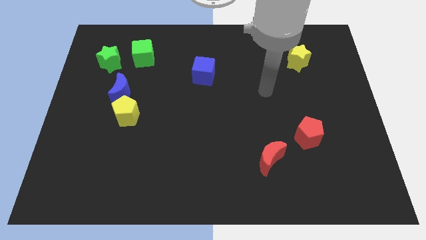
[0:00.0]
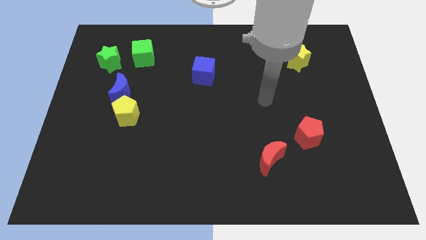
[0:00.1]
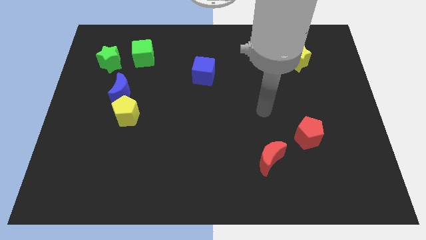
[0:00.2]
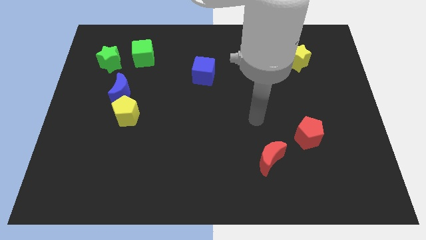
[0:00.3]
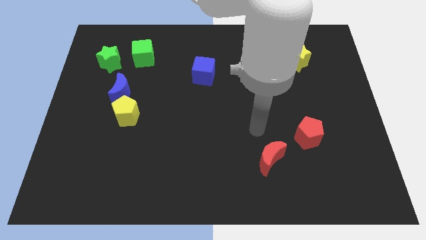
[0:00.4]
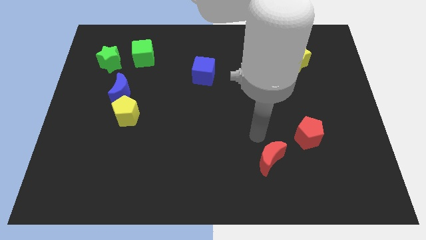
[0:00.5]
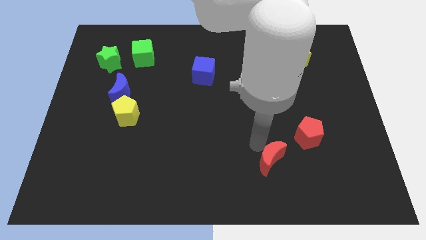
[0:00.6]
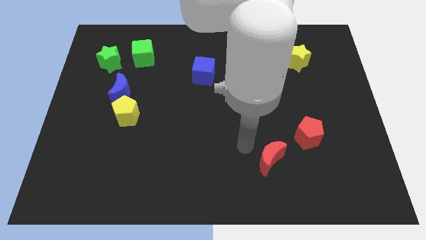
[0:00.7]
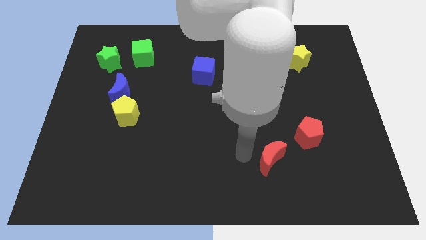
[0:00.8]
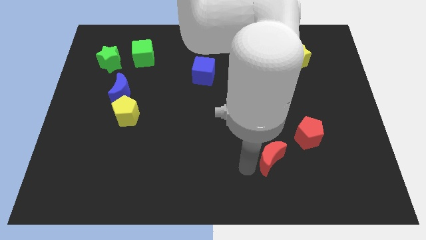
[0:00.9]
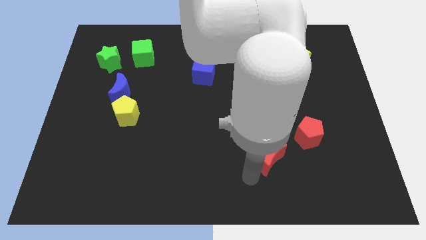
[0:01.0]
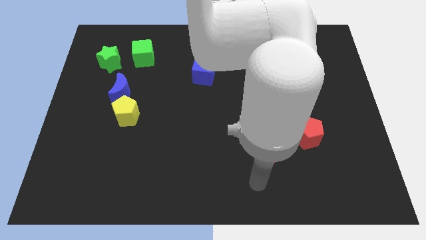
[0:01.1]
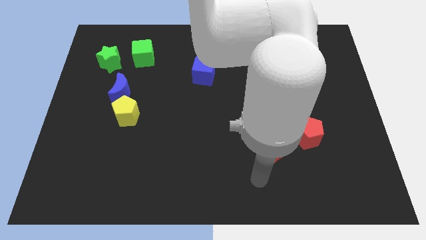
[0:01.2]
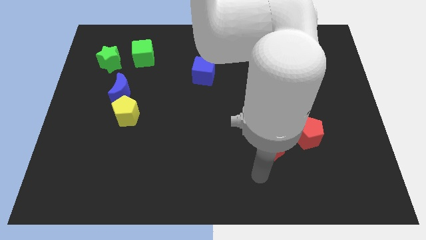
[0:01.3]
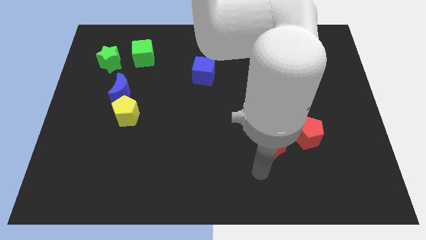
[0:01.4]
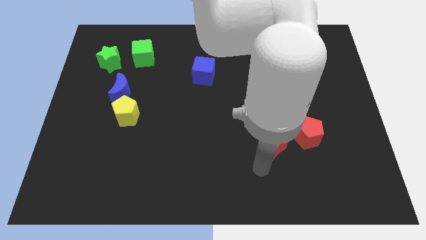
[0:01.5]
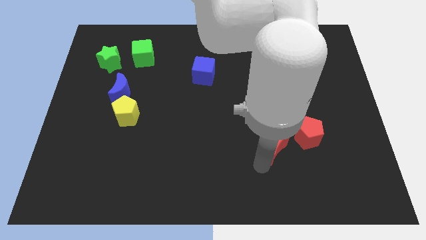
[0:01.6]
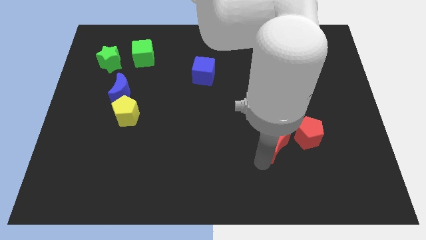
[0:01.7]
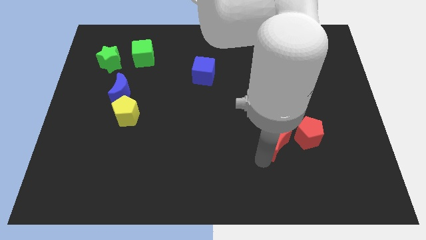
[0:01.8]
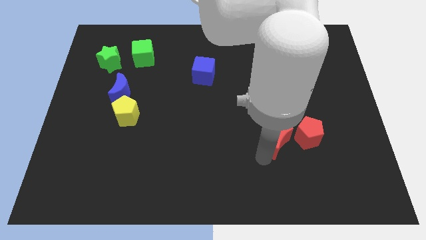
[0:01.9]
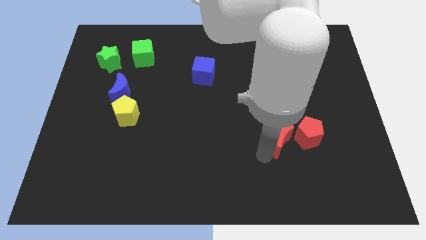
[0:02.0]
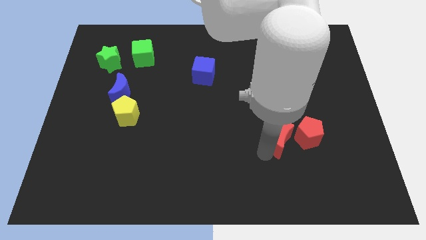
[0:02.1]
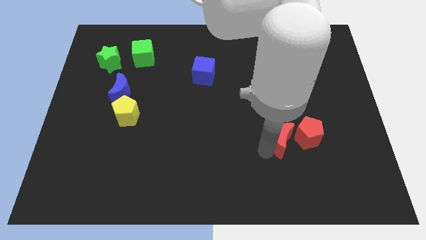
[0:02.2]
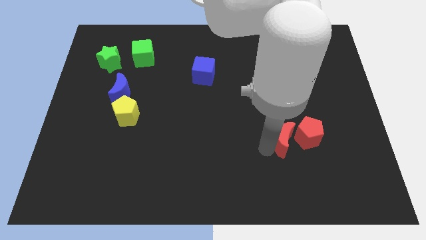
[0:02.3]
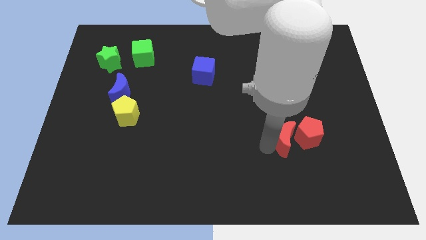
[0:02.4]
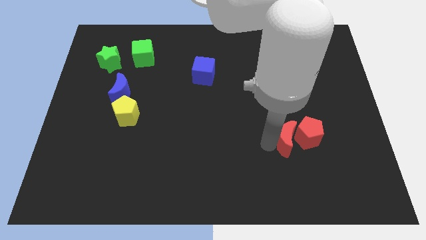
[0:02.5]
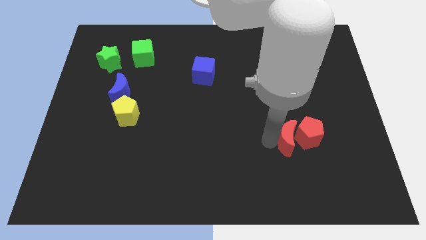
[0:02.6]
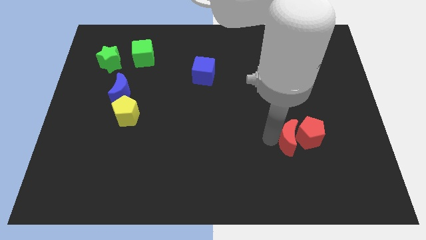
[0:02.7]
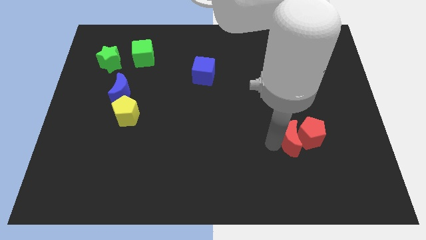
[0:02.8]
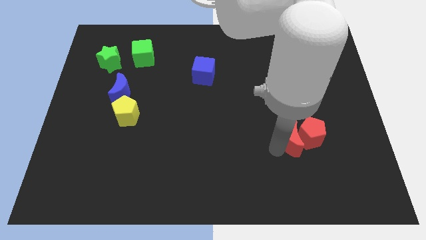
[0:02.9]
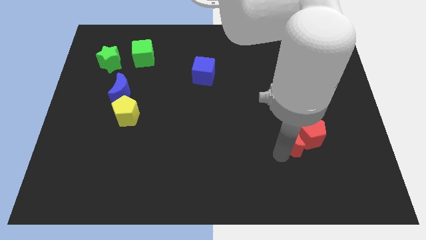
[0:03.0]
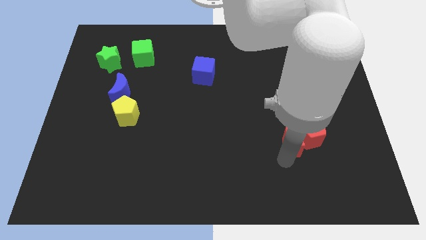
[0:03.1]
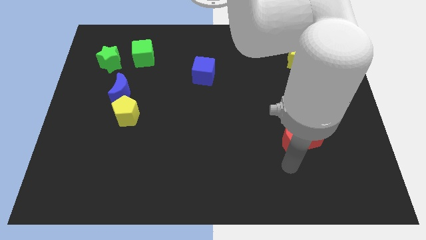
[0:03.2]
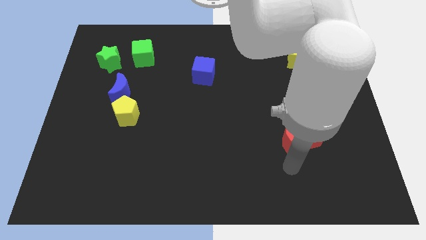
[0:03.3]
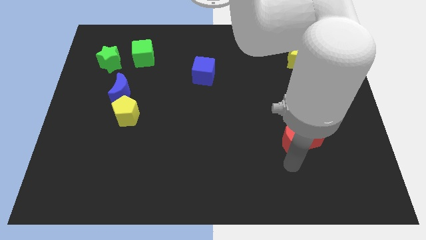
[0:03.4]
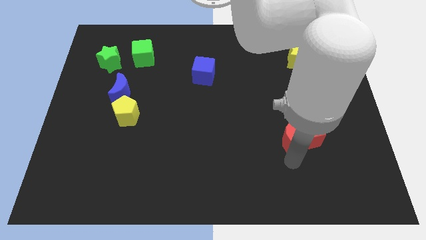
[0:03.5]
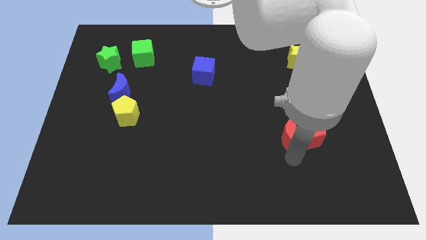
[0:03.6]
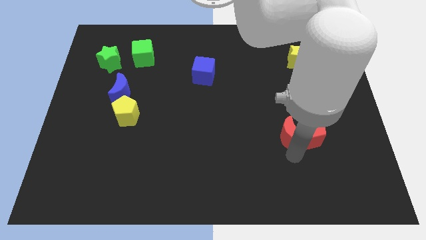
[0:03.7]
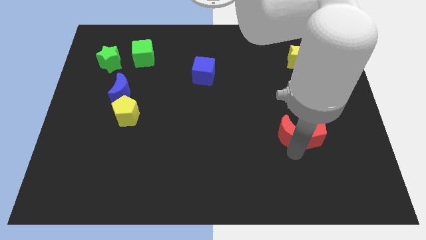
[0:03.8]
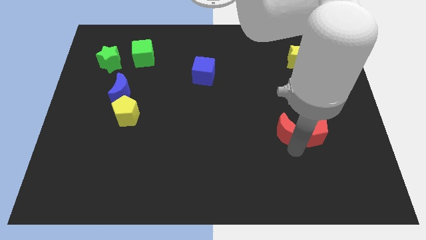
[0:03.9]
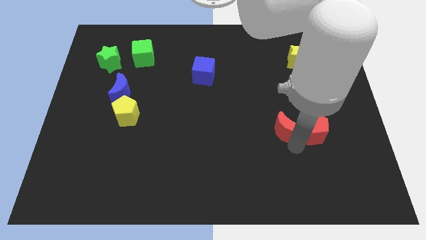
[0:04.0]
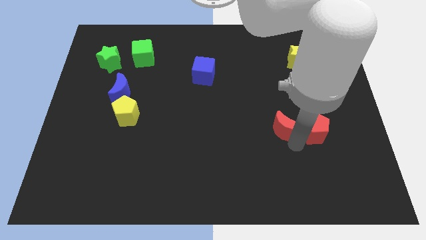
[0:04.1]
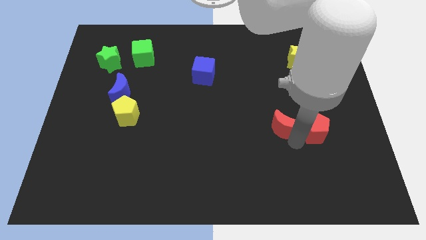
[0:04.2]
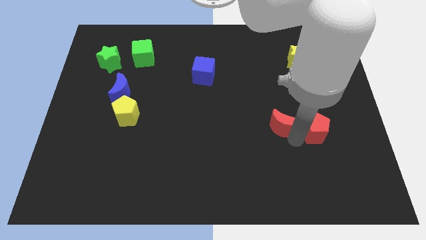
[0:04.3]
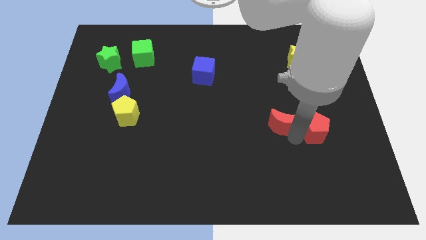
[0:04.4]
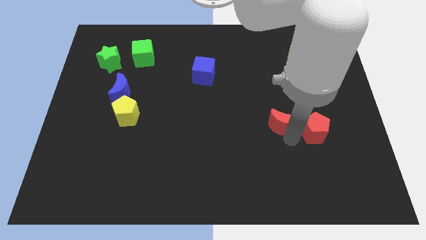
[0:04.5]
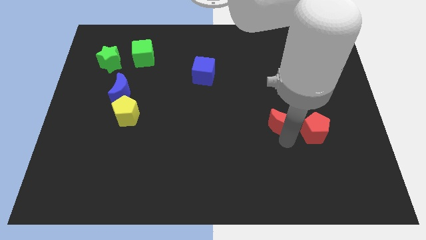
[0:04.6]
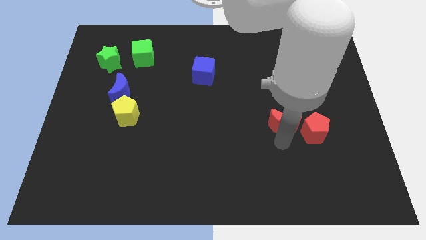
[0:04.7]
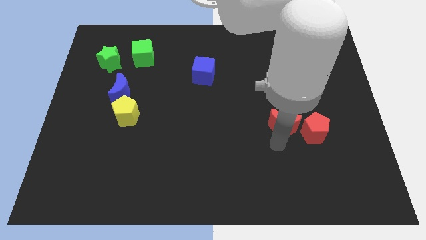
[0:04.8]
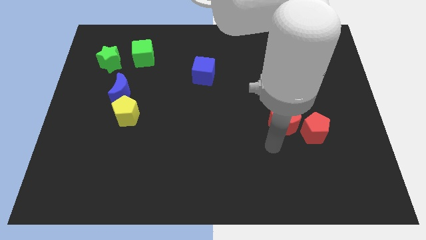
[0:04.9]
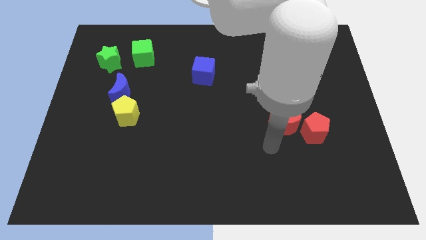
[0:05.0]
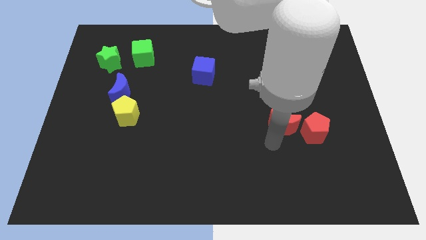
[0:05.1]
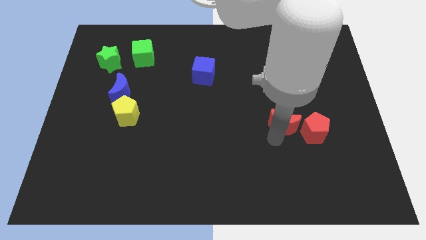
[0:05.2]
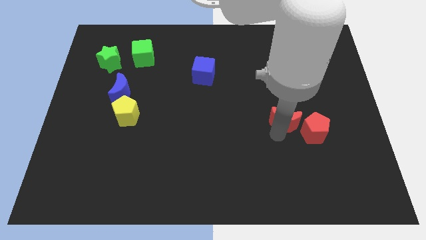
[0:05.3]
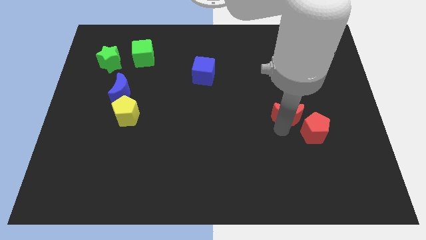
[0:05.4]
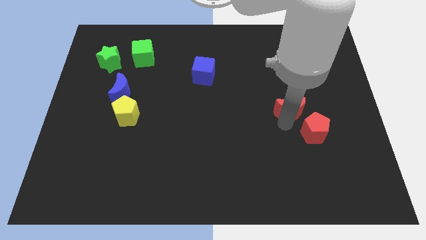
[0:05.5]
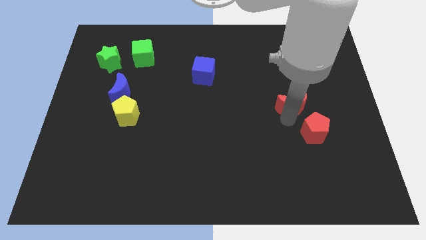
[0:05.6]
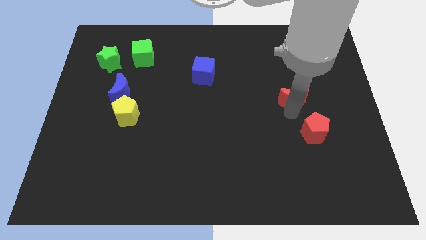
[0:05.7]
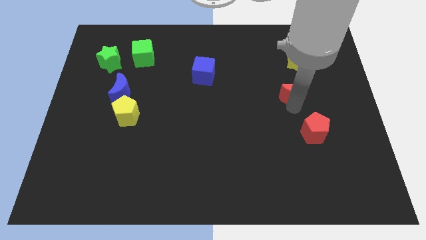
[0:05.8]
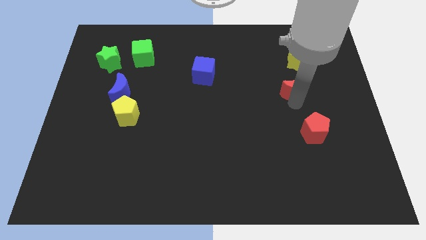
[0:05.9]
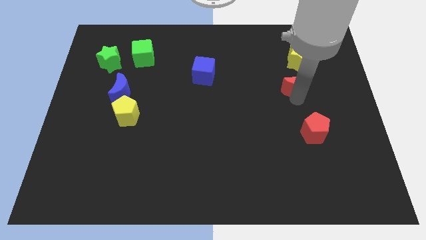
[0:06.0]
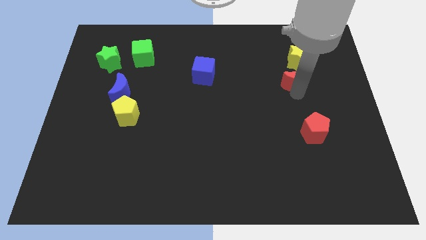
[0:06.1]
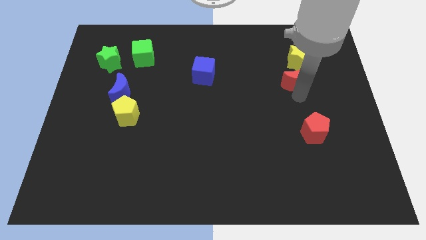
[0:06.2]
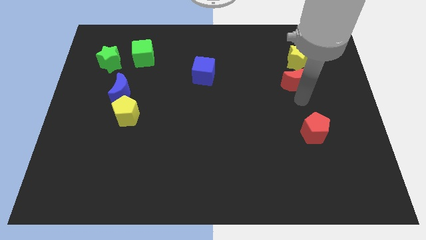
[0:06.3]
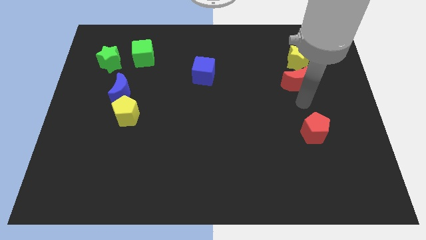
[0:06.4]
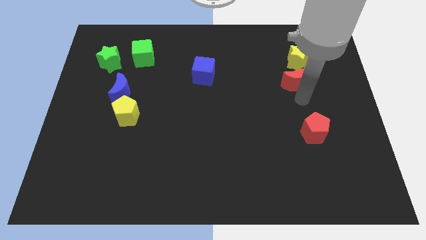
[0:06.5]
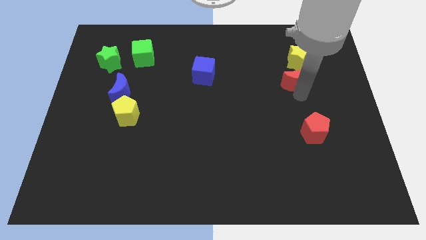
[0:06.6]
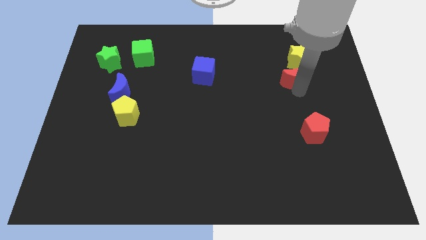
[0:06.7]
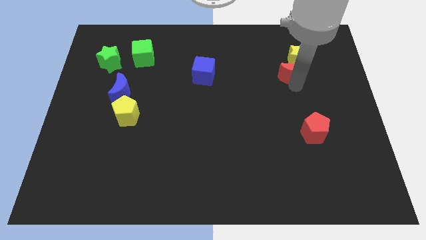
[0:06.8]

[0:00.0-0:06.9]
put the red moon towards the yellow star
